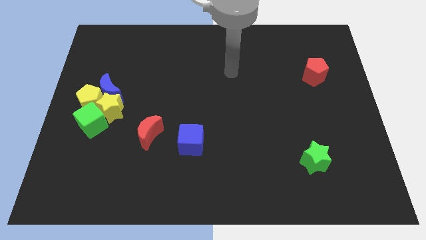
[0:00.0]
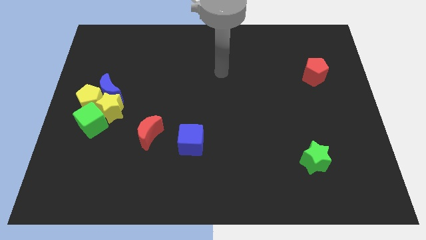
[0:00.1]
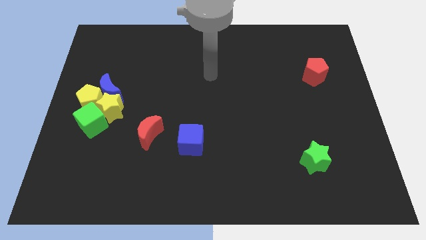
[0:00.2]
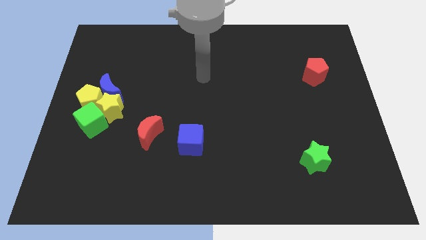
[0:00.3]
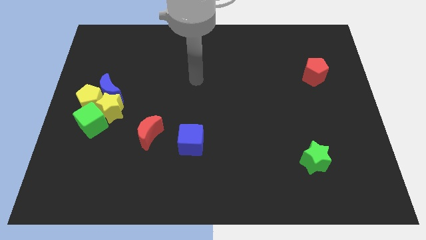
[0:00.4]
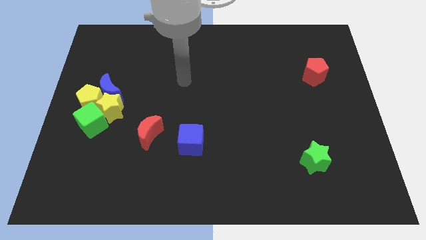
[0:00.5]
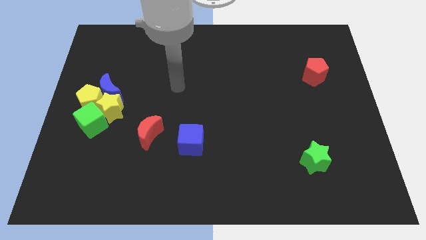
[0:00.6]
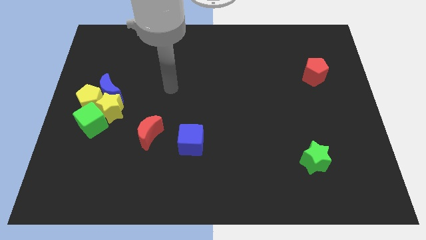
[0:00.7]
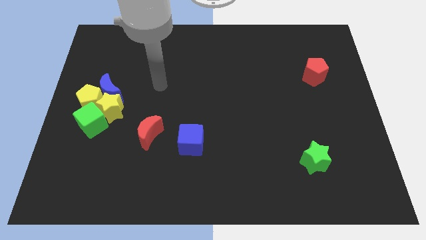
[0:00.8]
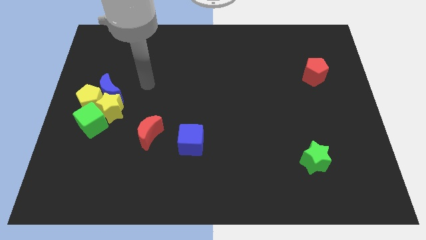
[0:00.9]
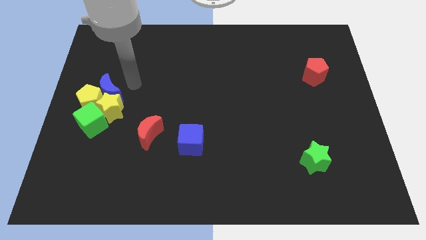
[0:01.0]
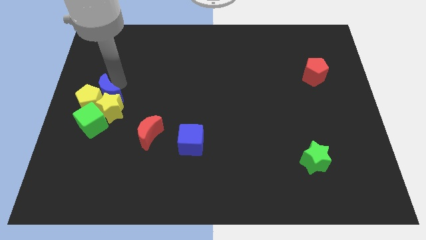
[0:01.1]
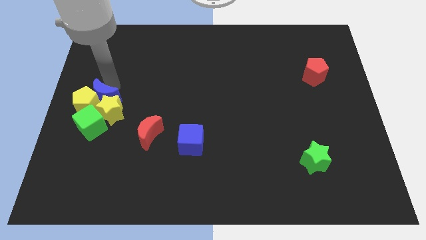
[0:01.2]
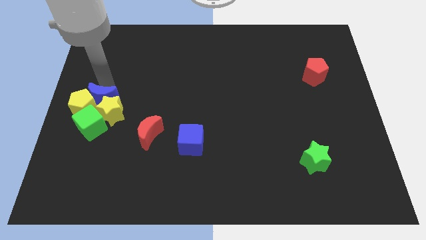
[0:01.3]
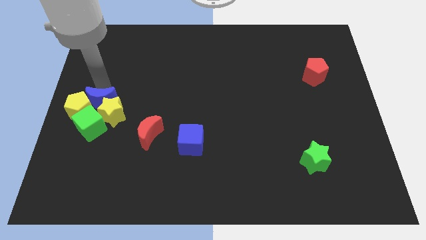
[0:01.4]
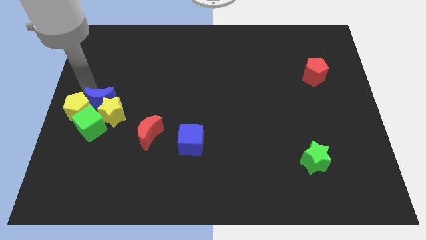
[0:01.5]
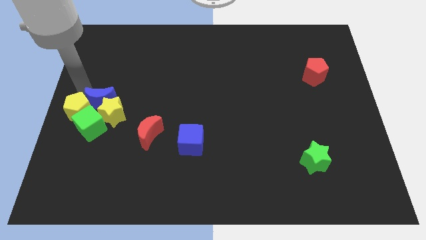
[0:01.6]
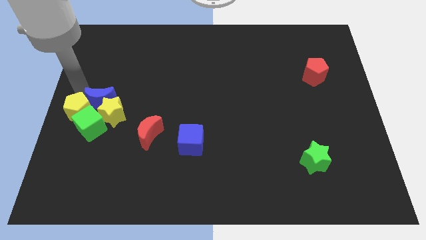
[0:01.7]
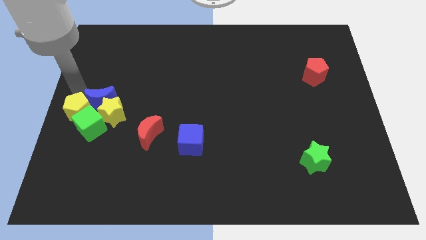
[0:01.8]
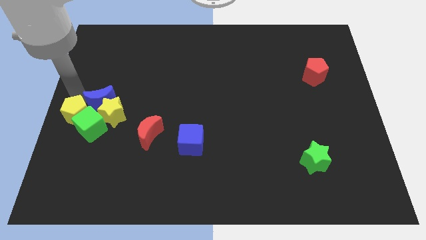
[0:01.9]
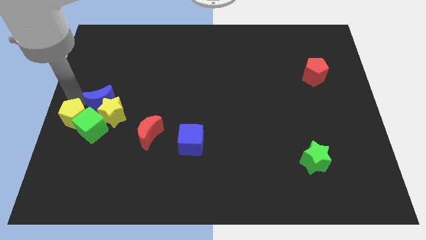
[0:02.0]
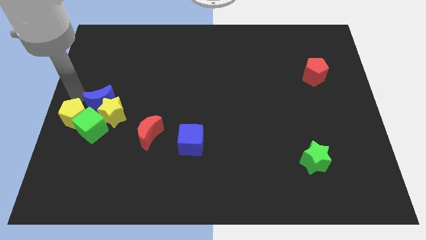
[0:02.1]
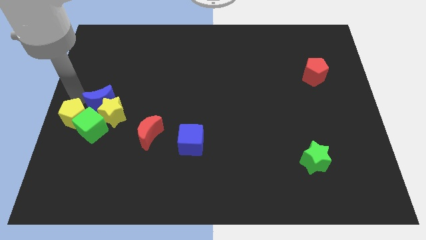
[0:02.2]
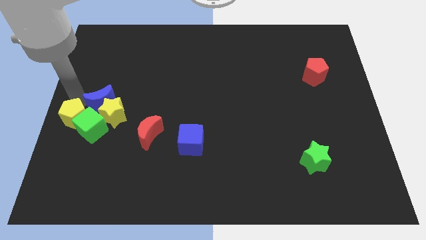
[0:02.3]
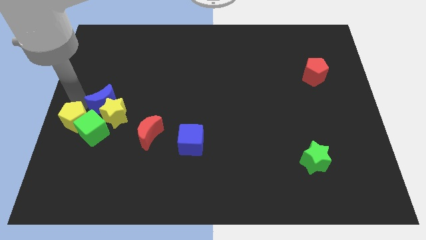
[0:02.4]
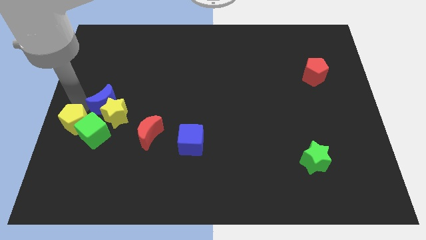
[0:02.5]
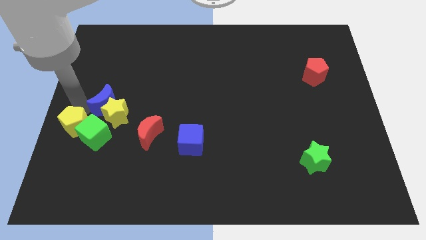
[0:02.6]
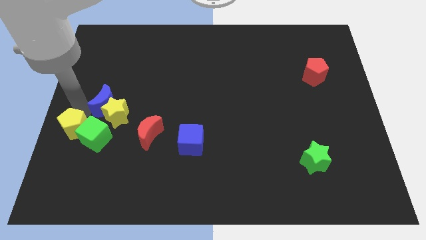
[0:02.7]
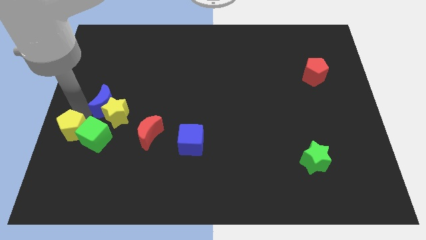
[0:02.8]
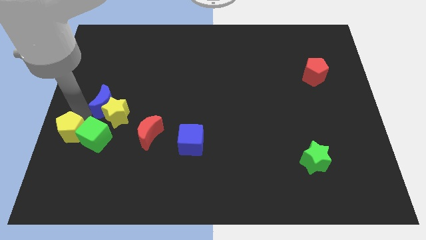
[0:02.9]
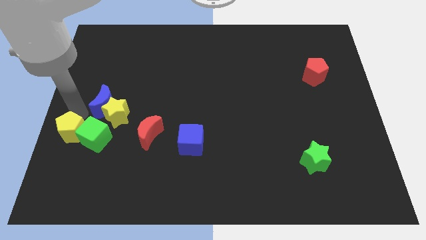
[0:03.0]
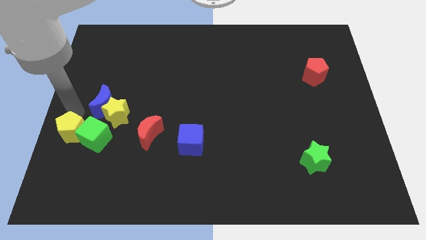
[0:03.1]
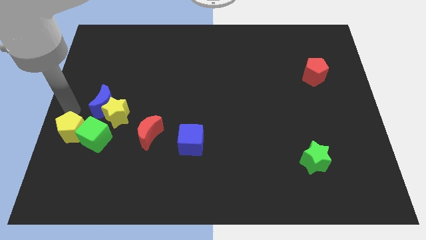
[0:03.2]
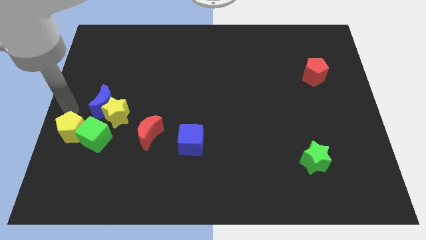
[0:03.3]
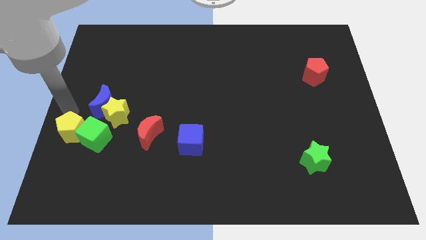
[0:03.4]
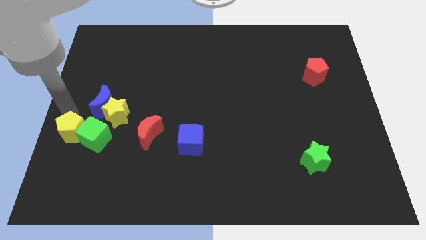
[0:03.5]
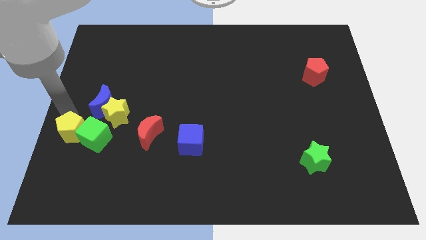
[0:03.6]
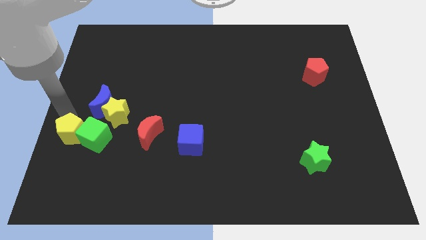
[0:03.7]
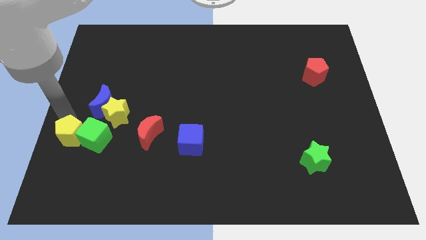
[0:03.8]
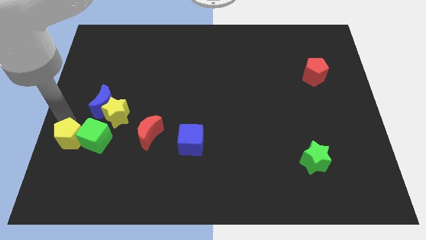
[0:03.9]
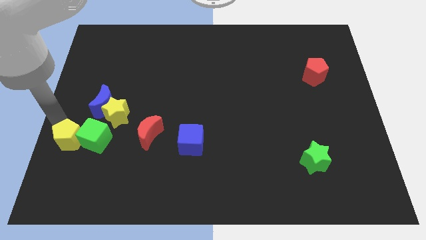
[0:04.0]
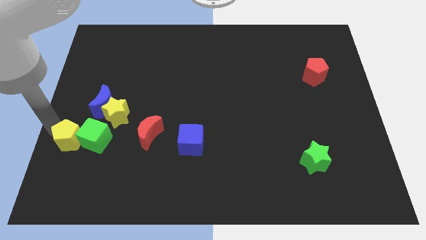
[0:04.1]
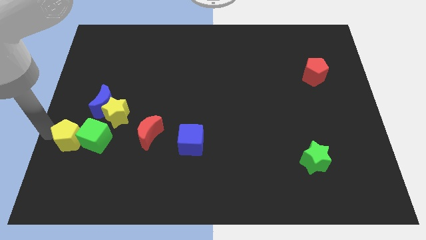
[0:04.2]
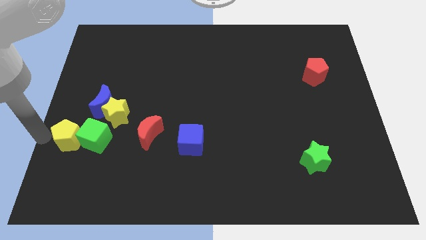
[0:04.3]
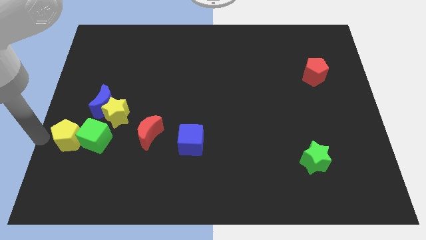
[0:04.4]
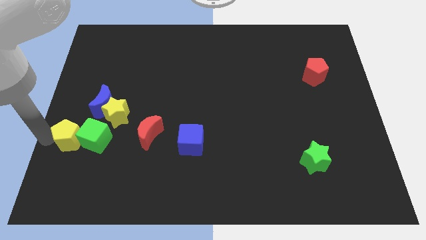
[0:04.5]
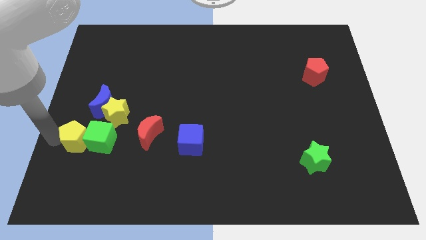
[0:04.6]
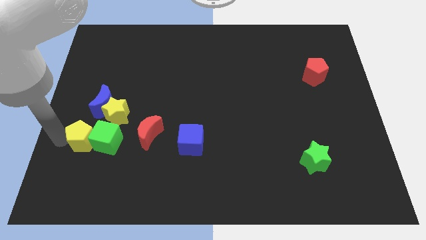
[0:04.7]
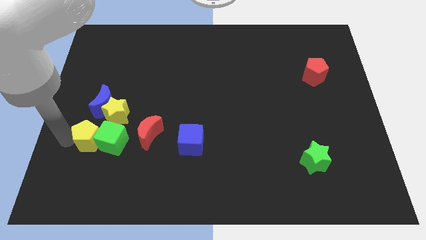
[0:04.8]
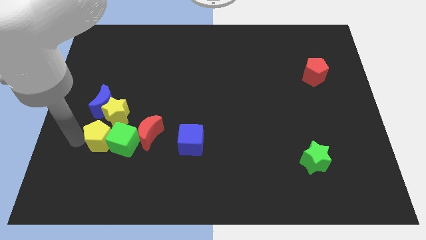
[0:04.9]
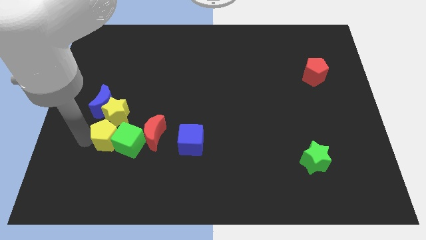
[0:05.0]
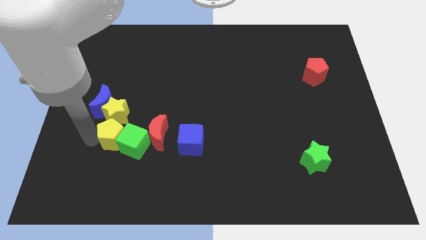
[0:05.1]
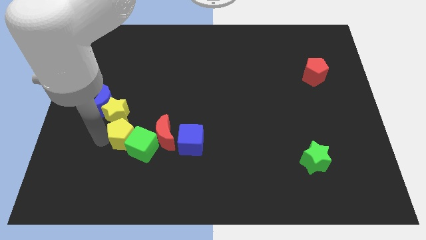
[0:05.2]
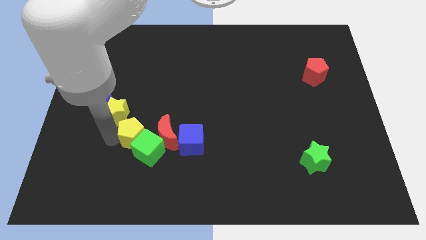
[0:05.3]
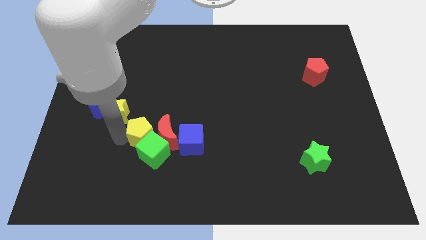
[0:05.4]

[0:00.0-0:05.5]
push the yellow pentagon next to the red moon

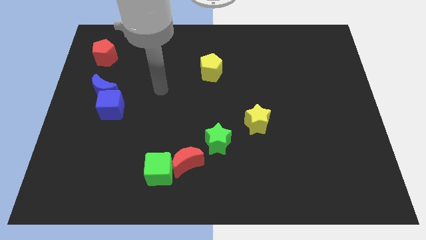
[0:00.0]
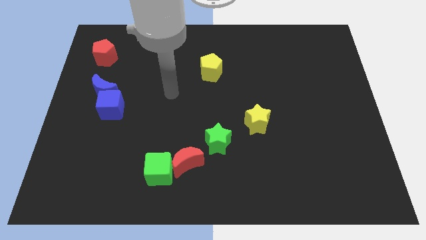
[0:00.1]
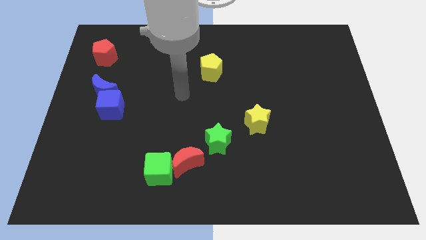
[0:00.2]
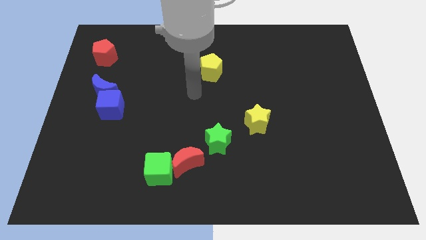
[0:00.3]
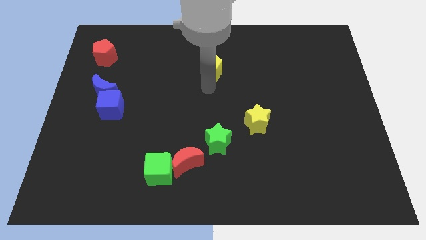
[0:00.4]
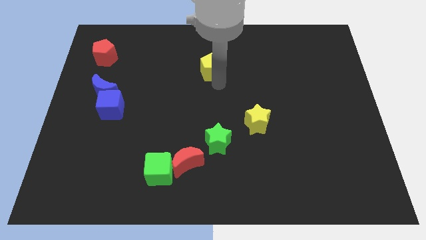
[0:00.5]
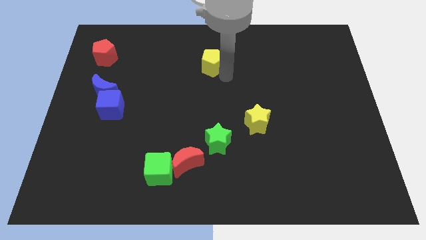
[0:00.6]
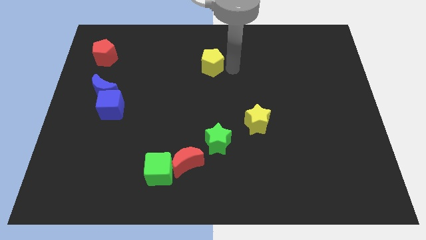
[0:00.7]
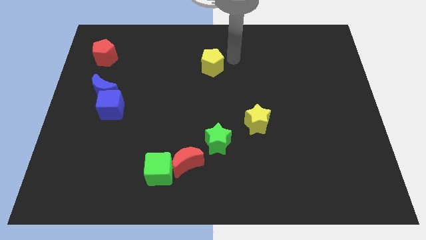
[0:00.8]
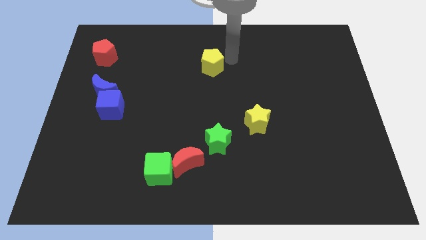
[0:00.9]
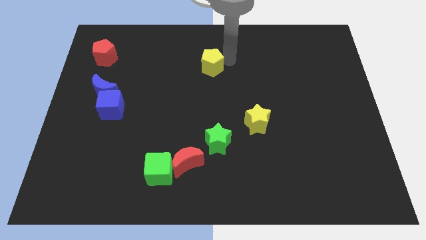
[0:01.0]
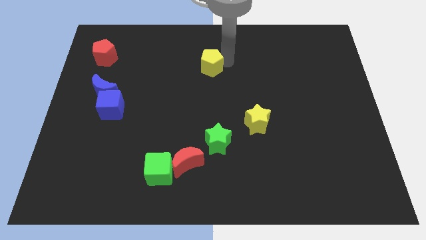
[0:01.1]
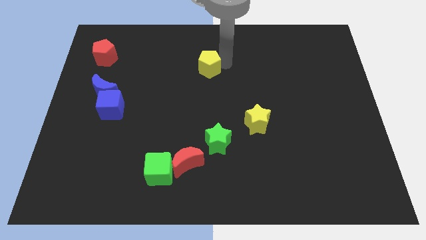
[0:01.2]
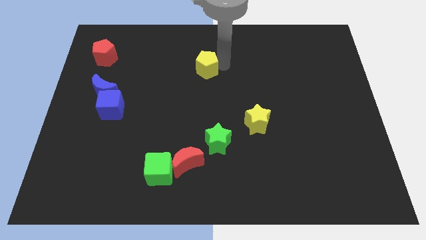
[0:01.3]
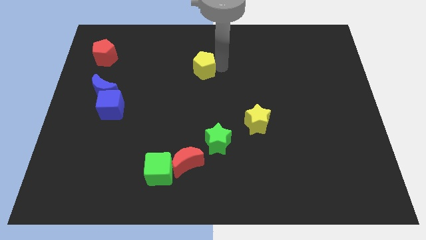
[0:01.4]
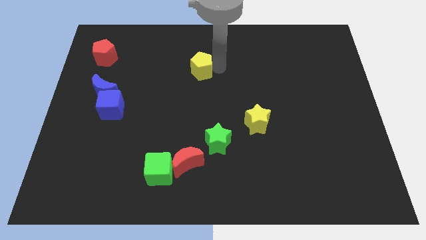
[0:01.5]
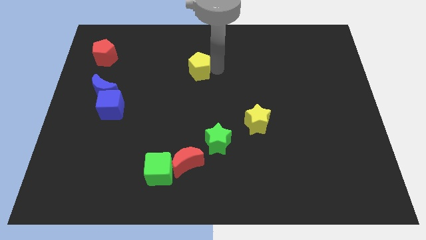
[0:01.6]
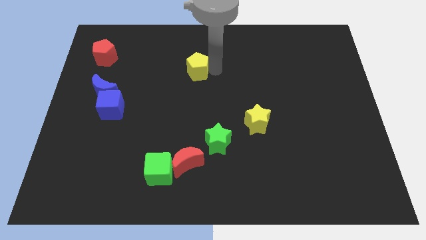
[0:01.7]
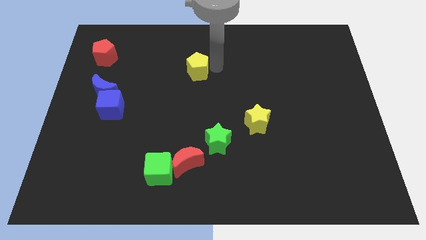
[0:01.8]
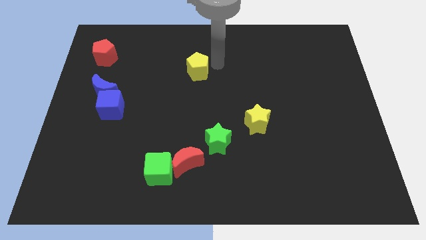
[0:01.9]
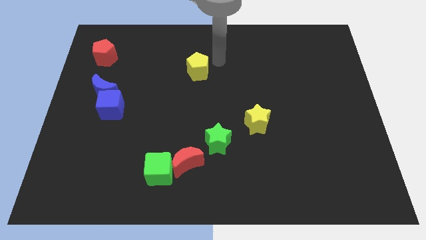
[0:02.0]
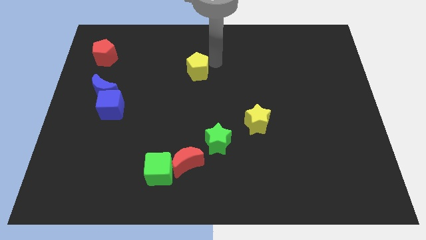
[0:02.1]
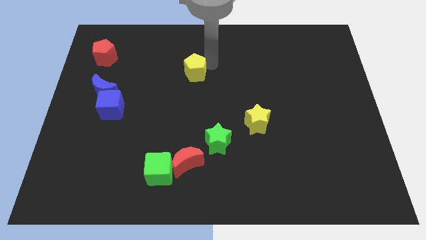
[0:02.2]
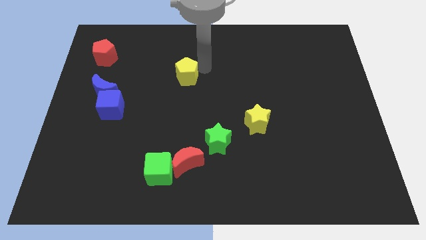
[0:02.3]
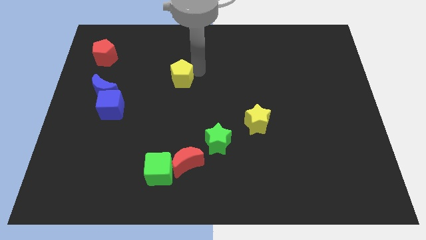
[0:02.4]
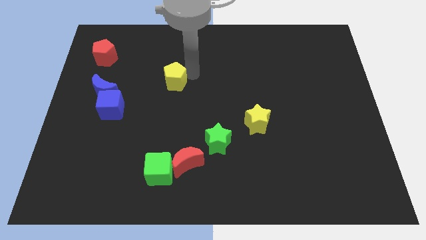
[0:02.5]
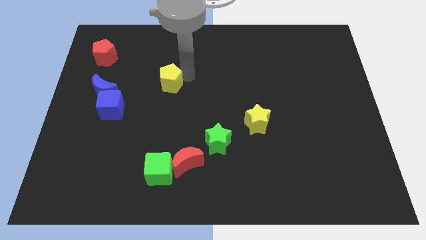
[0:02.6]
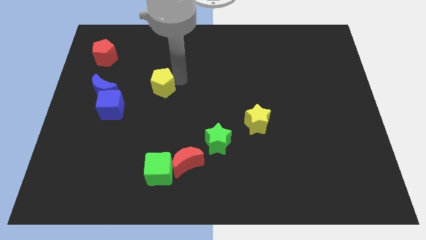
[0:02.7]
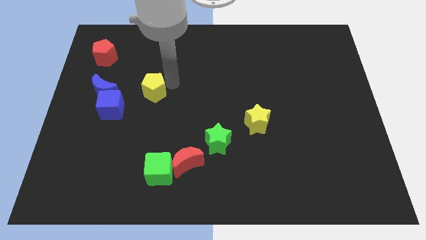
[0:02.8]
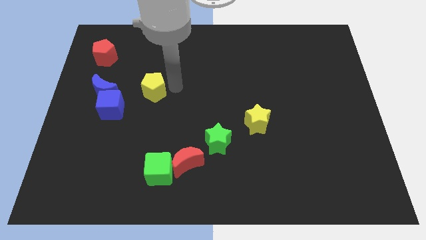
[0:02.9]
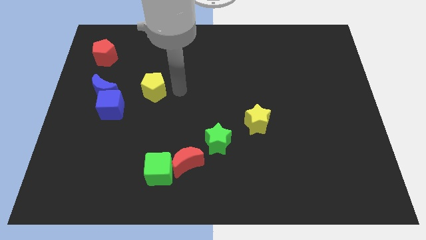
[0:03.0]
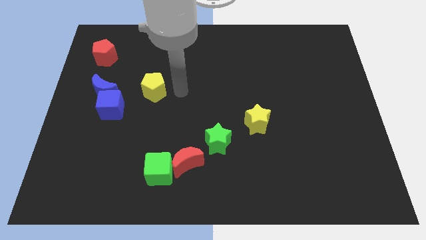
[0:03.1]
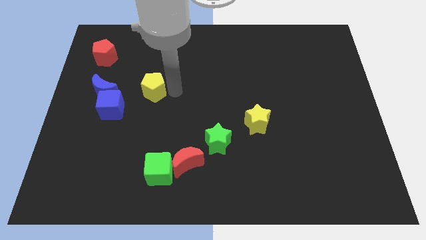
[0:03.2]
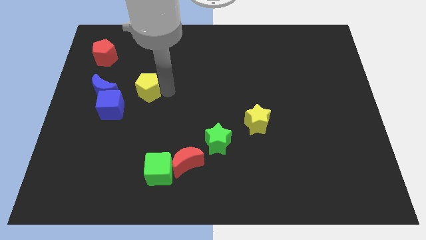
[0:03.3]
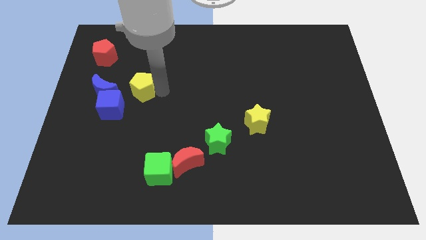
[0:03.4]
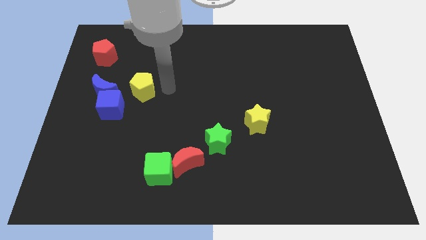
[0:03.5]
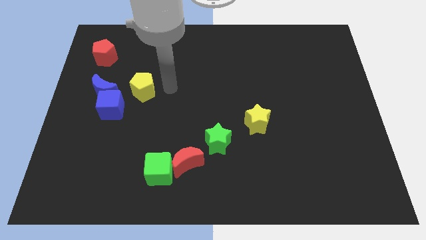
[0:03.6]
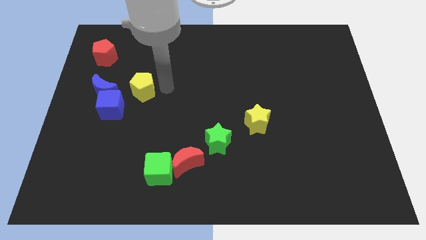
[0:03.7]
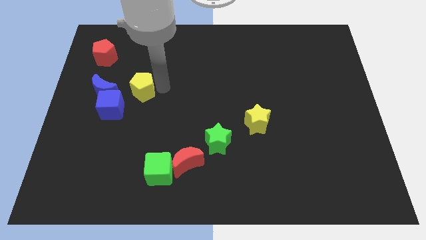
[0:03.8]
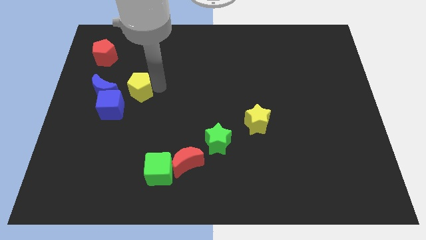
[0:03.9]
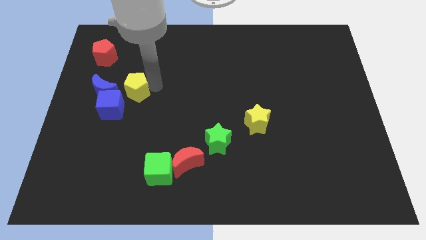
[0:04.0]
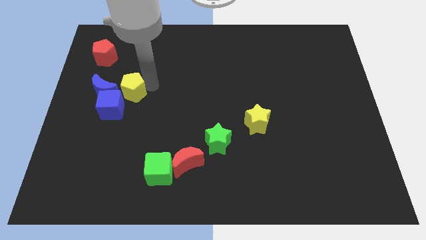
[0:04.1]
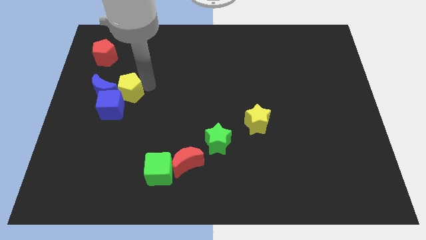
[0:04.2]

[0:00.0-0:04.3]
put the yellow pentagon next to the blue moon
